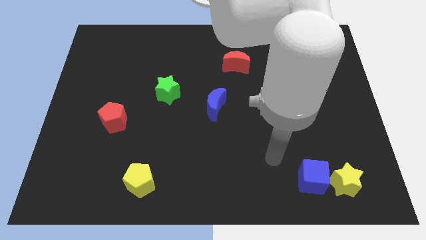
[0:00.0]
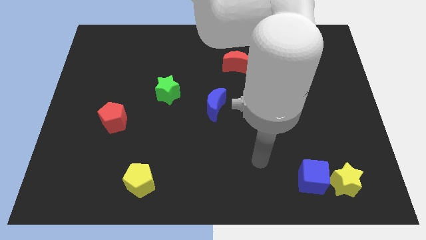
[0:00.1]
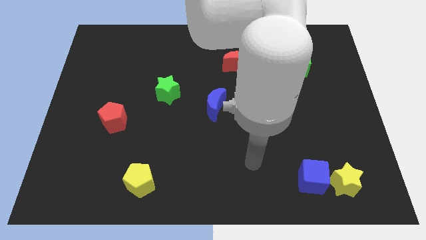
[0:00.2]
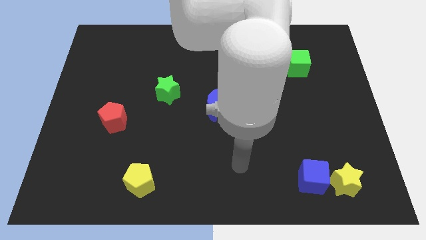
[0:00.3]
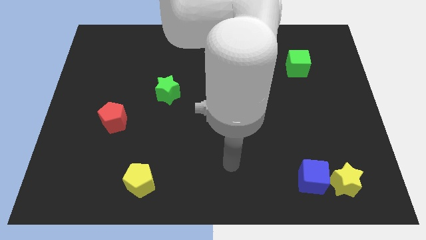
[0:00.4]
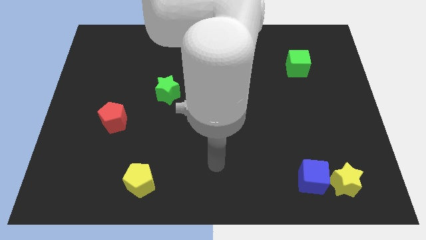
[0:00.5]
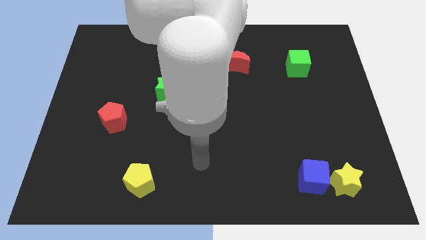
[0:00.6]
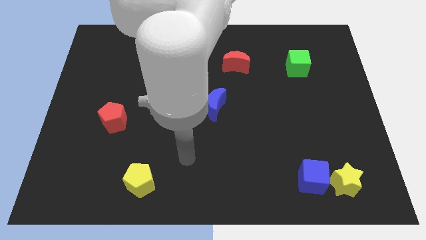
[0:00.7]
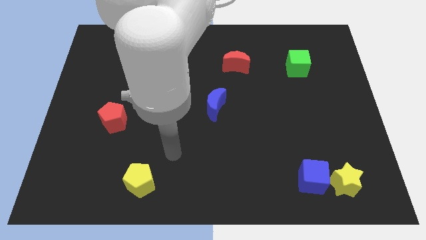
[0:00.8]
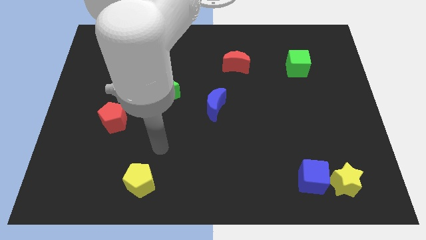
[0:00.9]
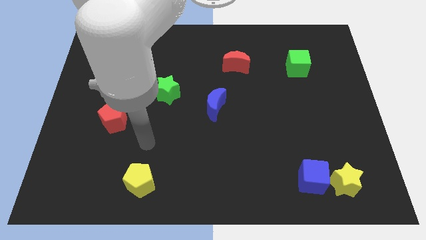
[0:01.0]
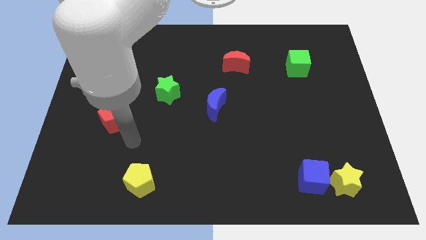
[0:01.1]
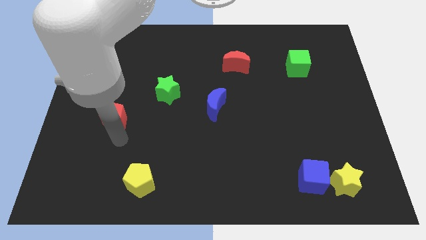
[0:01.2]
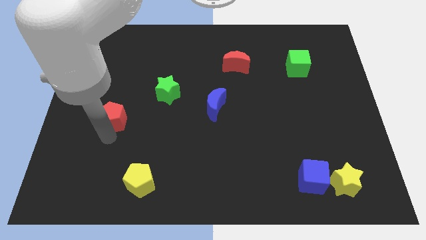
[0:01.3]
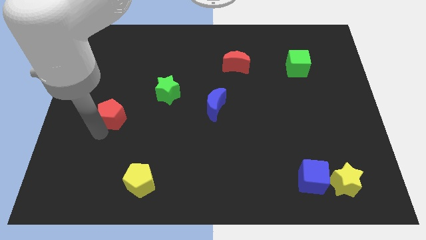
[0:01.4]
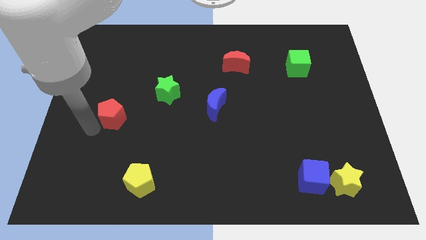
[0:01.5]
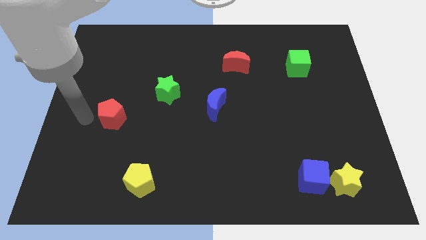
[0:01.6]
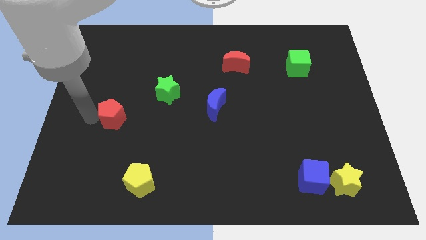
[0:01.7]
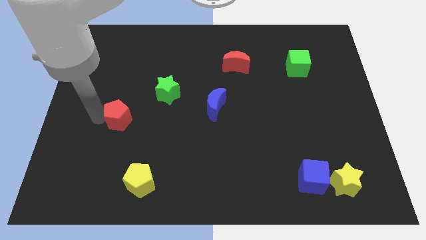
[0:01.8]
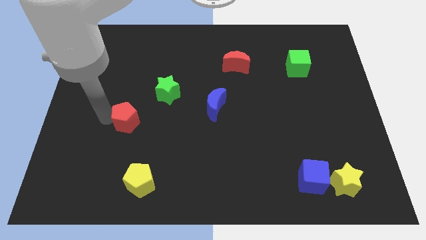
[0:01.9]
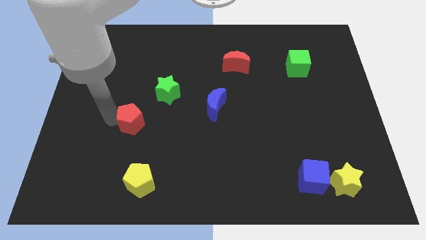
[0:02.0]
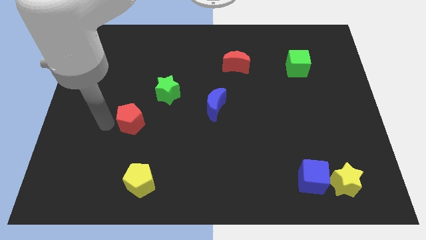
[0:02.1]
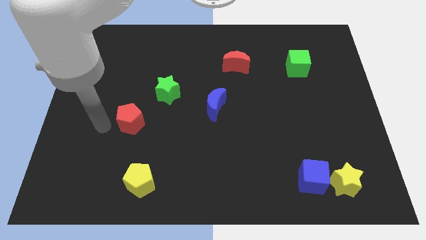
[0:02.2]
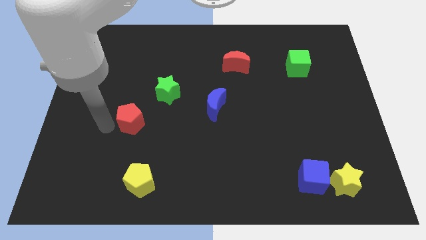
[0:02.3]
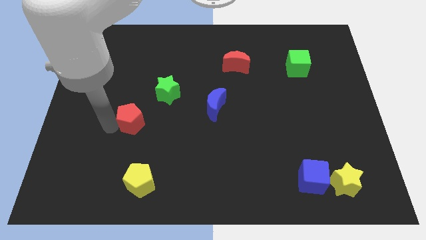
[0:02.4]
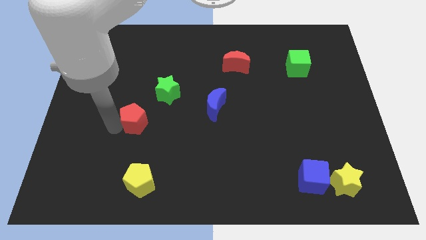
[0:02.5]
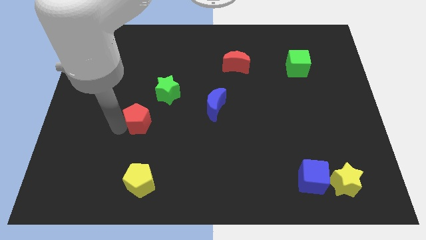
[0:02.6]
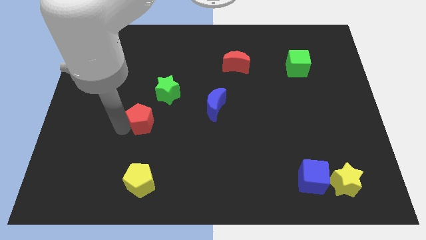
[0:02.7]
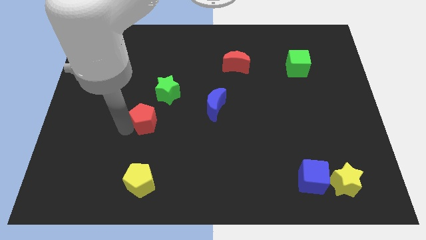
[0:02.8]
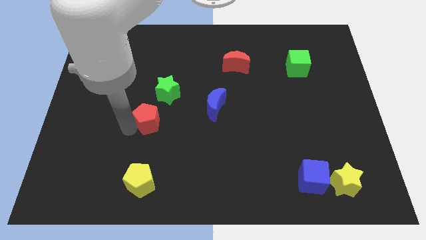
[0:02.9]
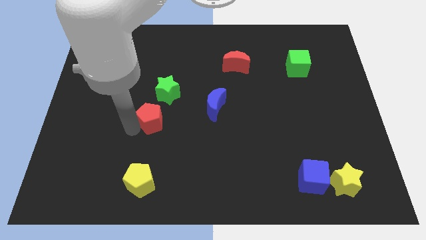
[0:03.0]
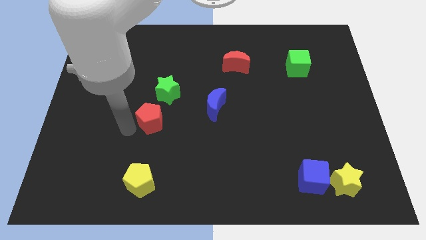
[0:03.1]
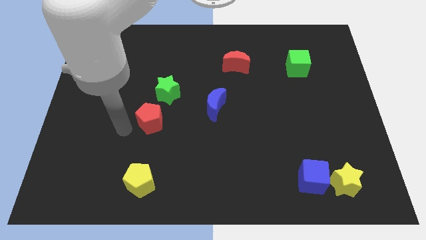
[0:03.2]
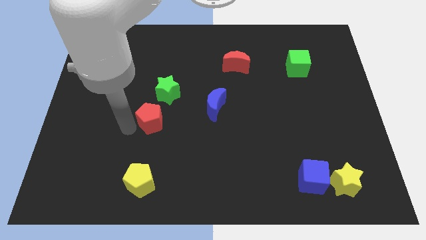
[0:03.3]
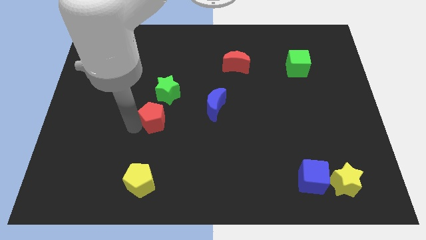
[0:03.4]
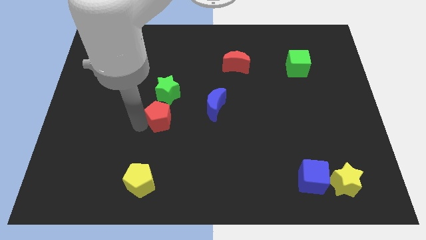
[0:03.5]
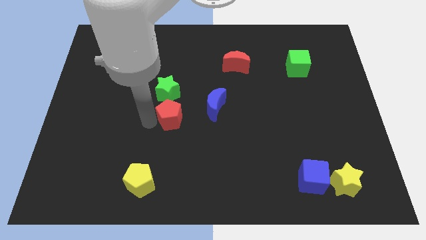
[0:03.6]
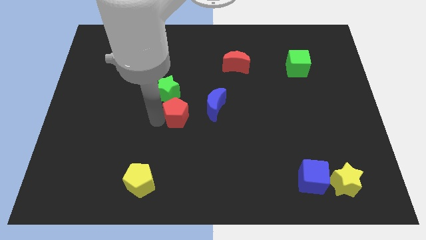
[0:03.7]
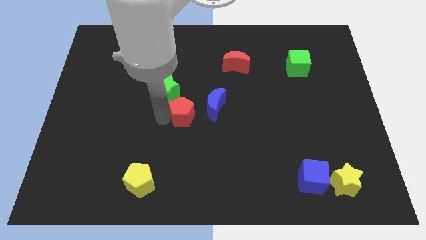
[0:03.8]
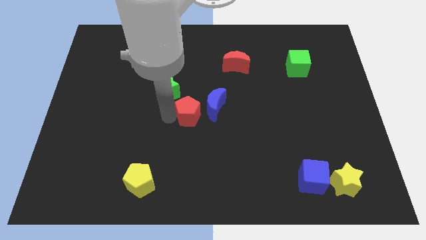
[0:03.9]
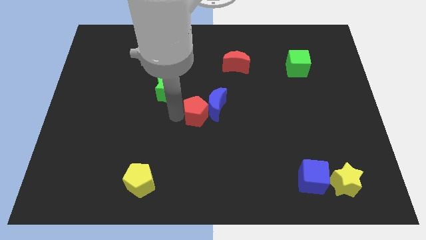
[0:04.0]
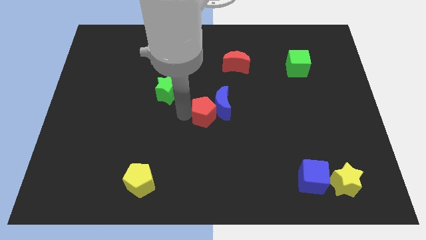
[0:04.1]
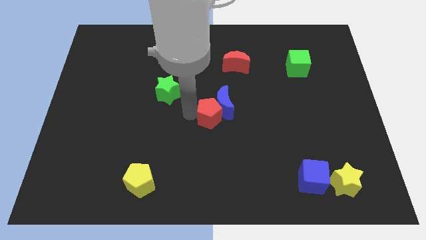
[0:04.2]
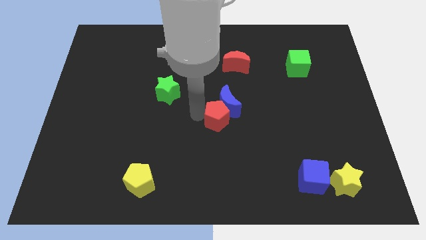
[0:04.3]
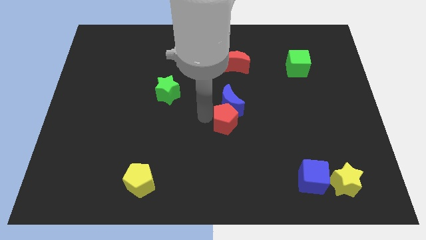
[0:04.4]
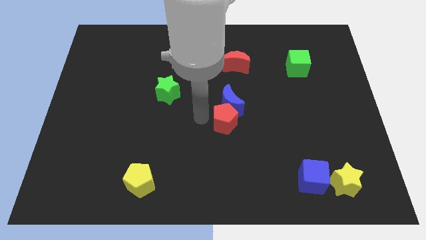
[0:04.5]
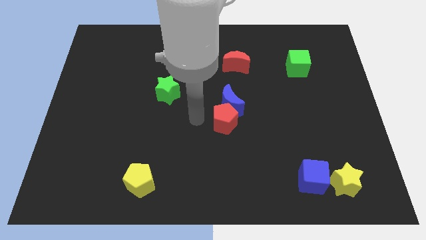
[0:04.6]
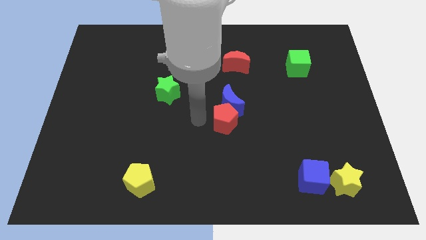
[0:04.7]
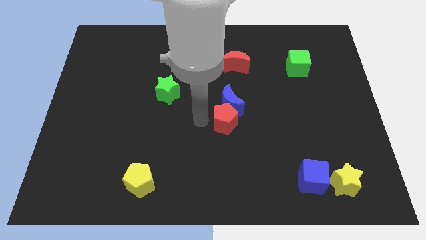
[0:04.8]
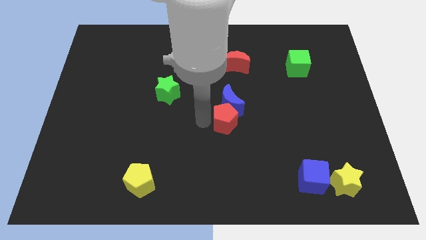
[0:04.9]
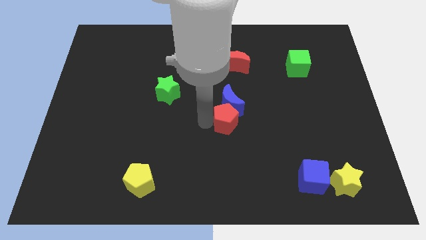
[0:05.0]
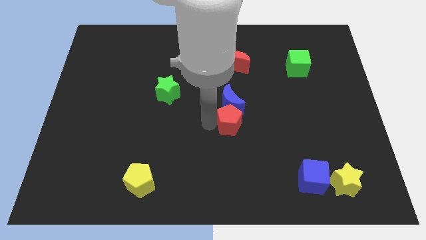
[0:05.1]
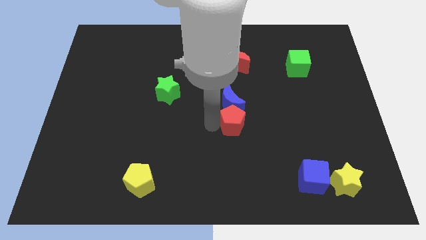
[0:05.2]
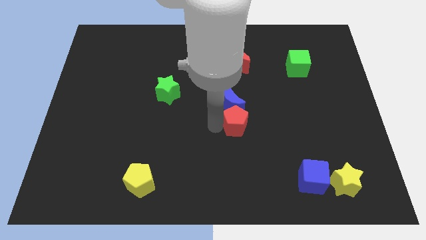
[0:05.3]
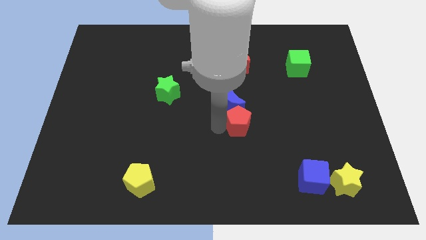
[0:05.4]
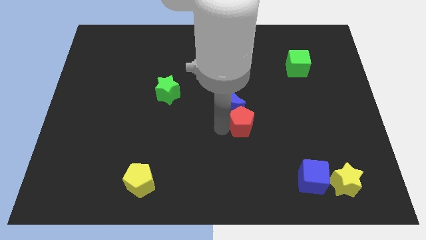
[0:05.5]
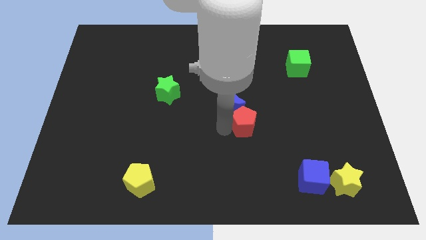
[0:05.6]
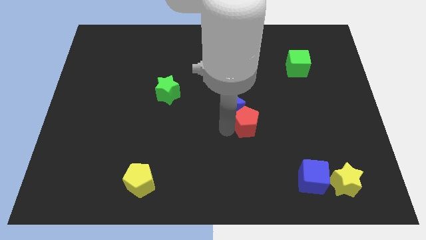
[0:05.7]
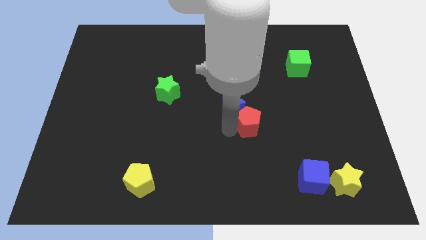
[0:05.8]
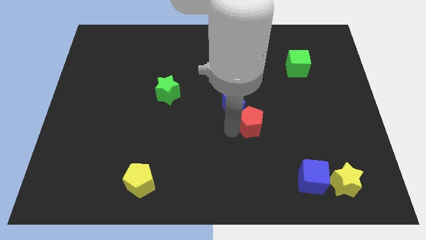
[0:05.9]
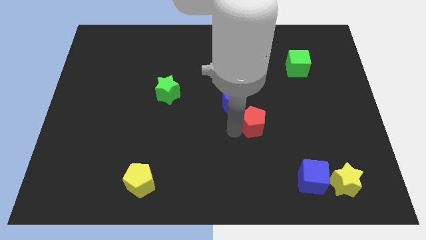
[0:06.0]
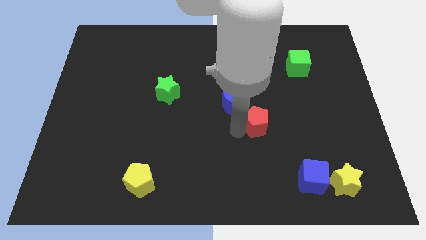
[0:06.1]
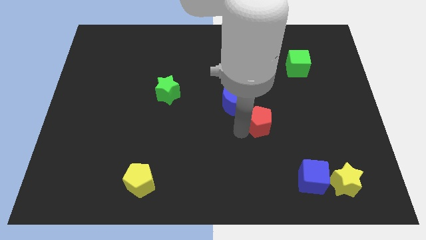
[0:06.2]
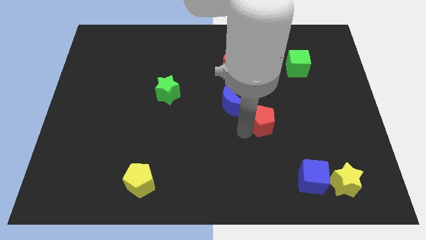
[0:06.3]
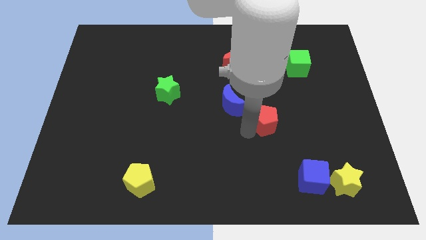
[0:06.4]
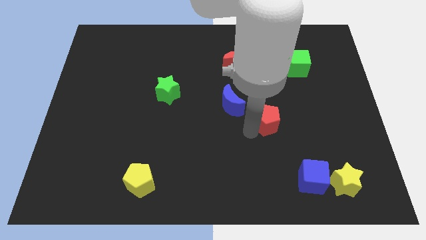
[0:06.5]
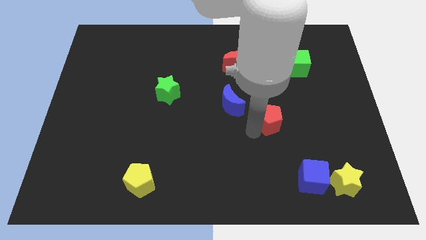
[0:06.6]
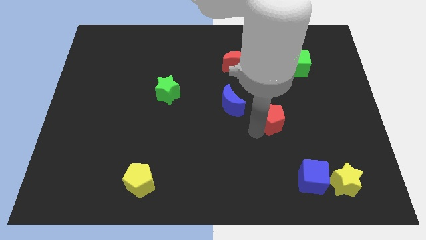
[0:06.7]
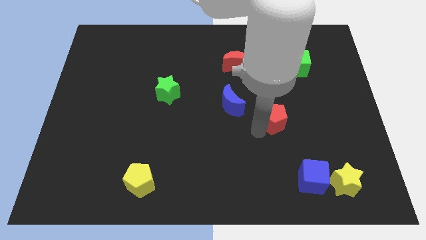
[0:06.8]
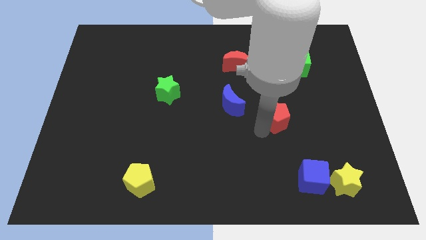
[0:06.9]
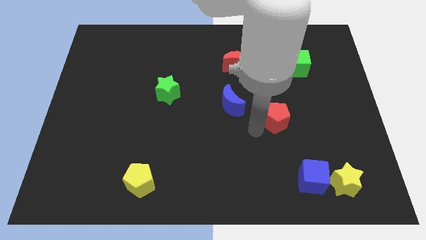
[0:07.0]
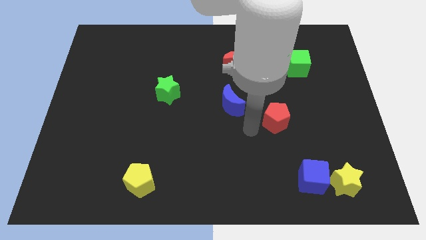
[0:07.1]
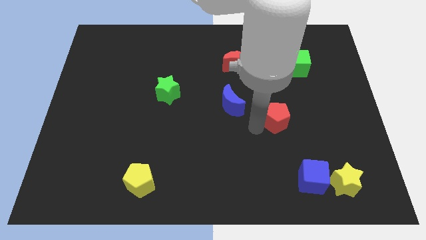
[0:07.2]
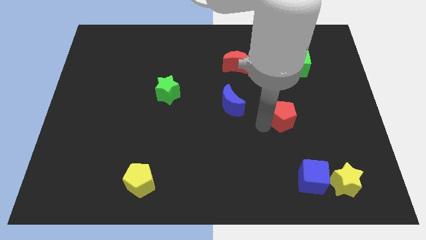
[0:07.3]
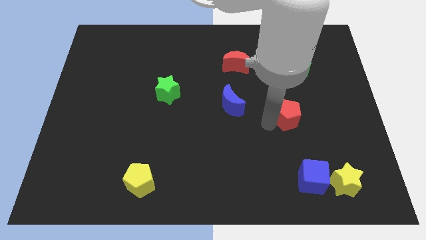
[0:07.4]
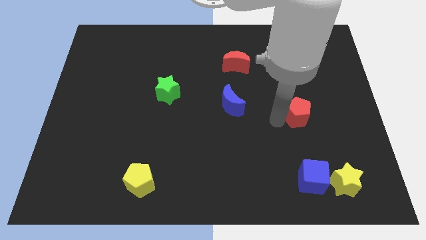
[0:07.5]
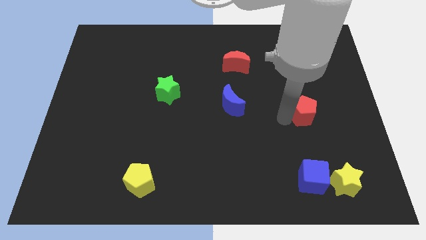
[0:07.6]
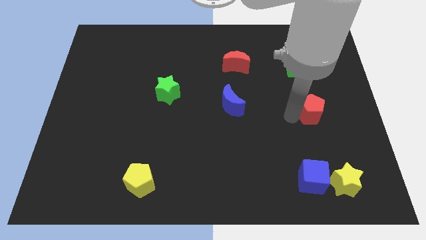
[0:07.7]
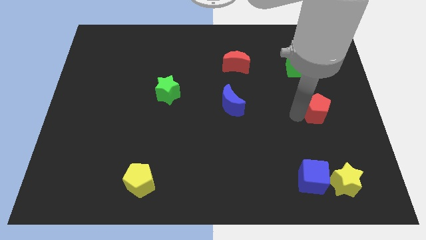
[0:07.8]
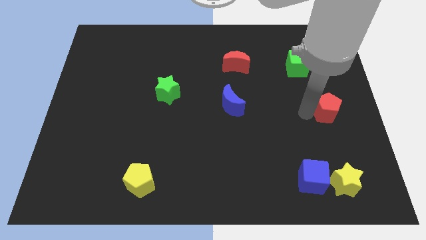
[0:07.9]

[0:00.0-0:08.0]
put the red pentagon to the right side of the board
